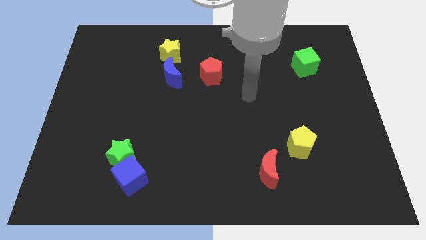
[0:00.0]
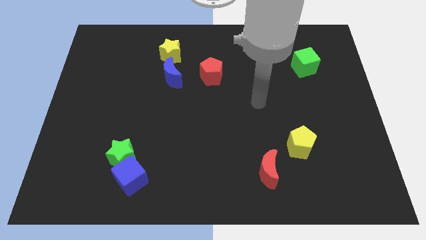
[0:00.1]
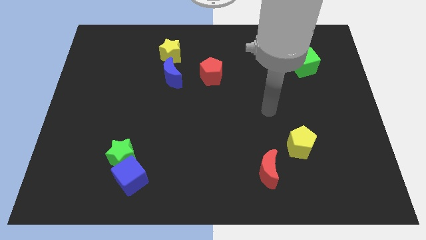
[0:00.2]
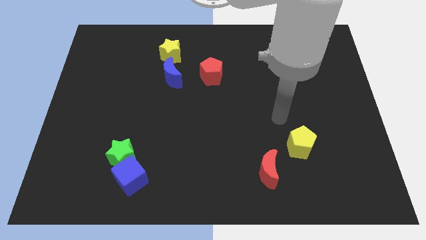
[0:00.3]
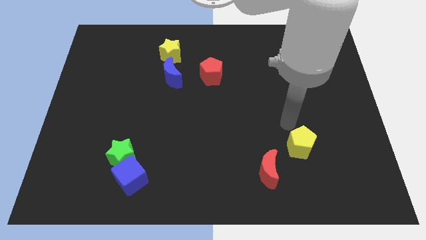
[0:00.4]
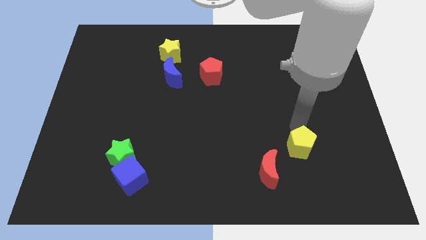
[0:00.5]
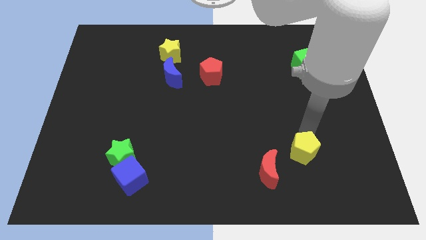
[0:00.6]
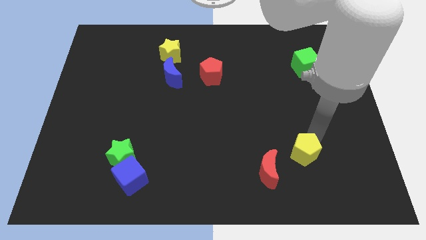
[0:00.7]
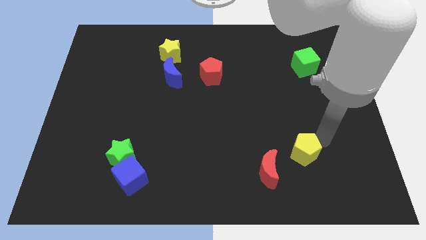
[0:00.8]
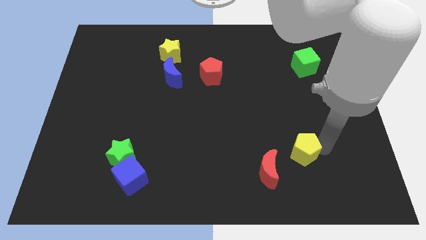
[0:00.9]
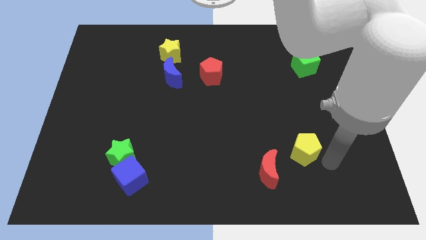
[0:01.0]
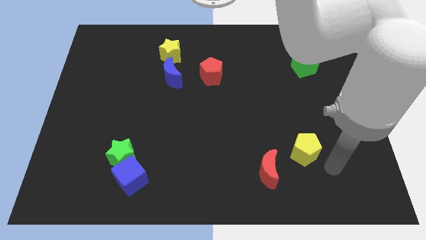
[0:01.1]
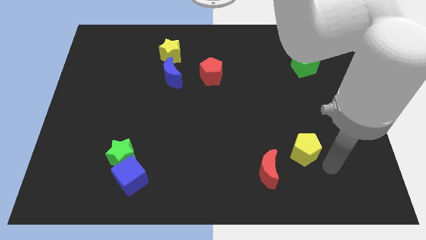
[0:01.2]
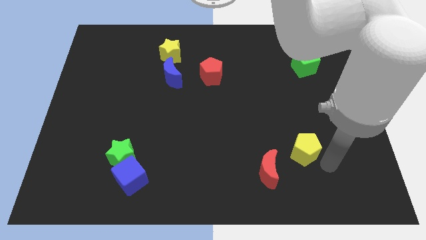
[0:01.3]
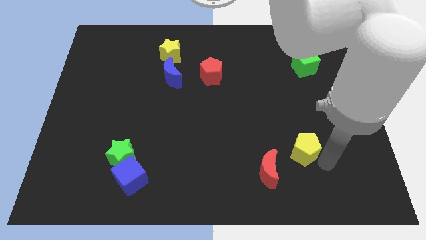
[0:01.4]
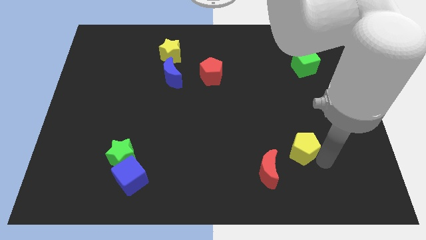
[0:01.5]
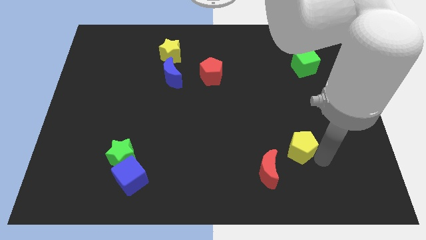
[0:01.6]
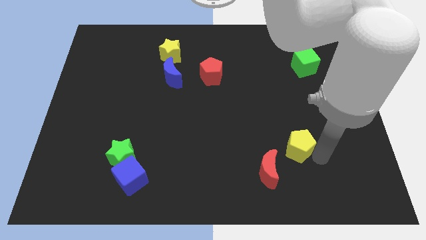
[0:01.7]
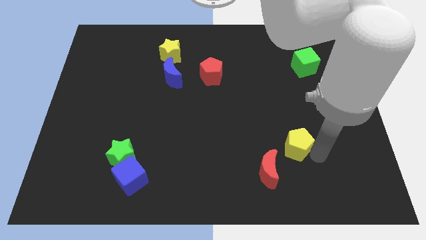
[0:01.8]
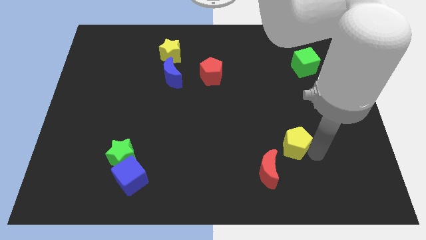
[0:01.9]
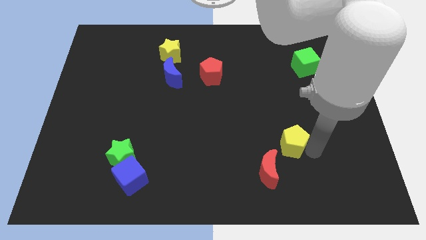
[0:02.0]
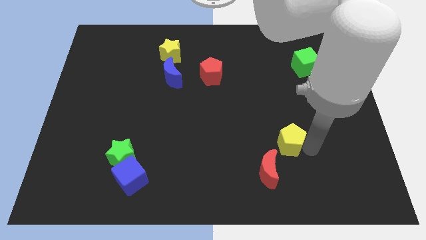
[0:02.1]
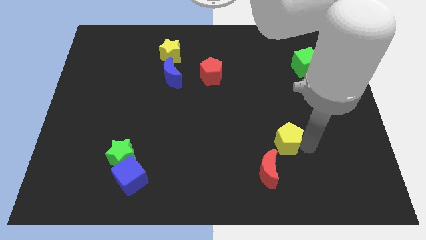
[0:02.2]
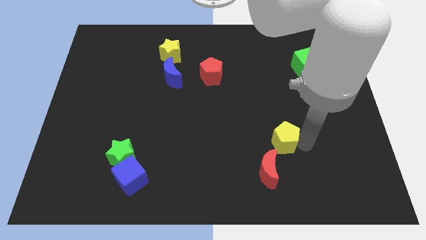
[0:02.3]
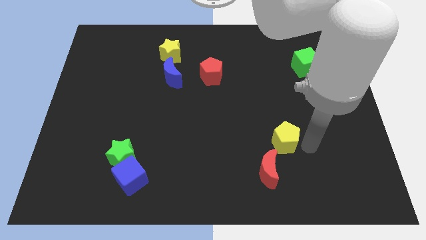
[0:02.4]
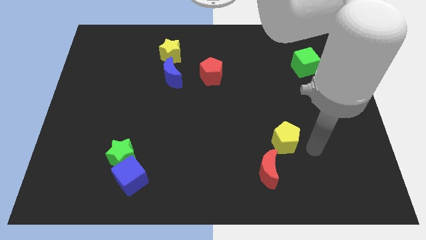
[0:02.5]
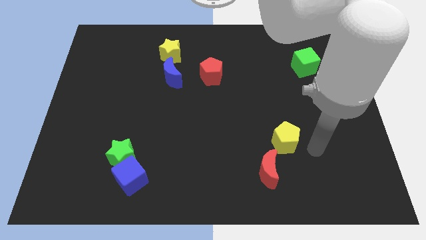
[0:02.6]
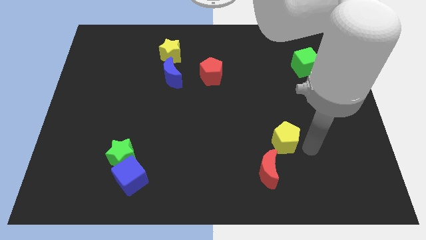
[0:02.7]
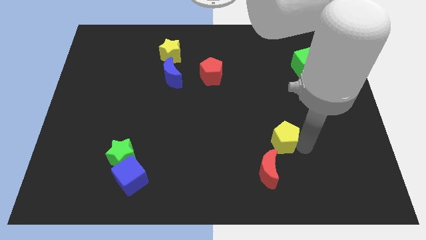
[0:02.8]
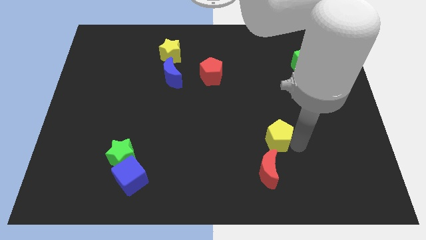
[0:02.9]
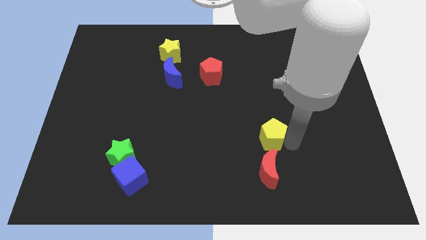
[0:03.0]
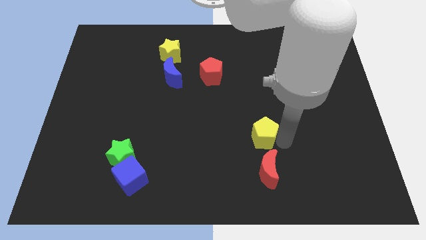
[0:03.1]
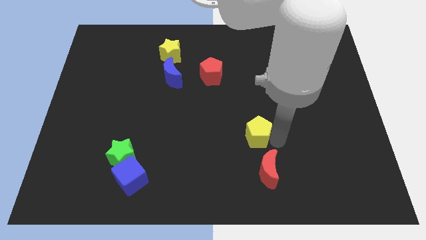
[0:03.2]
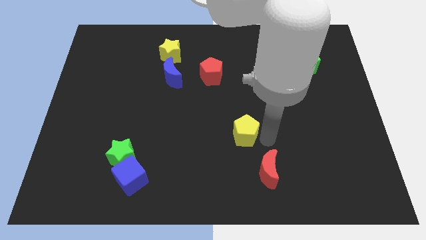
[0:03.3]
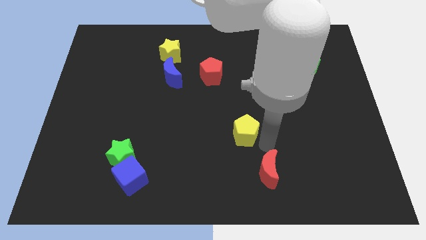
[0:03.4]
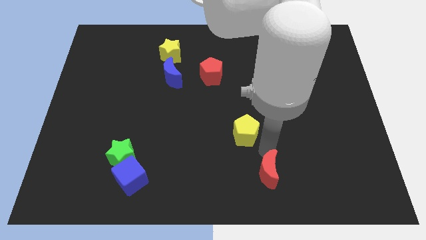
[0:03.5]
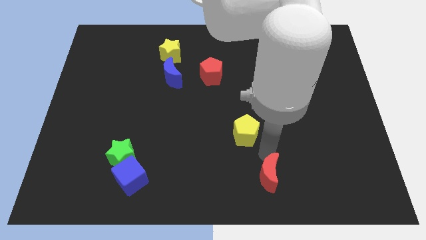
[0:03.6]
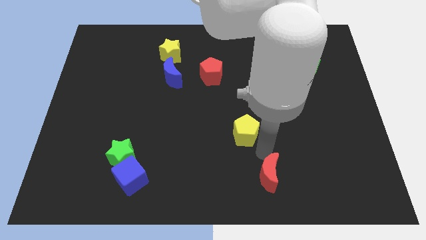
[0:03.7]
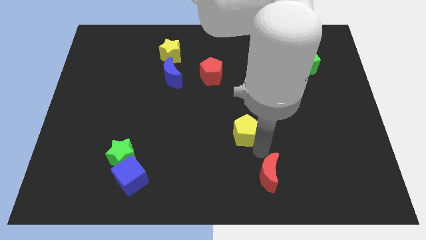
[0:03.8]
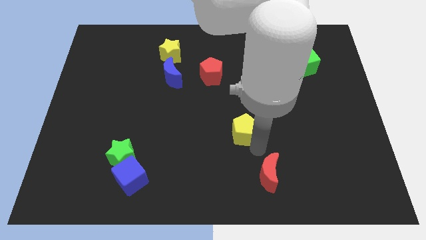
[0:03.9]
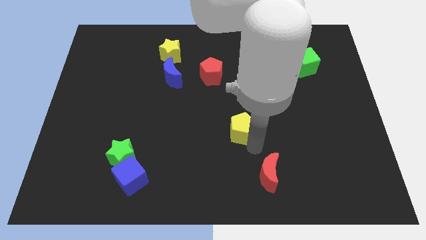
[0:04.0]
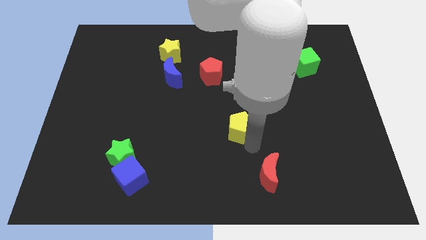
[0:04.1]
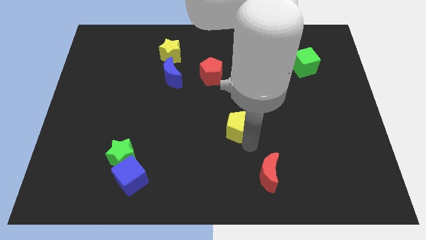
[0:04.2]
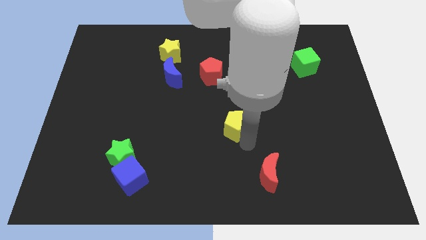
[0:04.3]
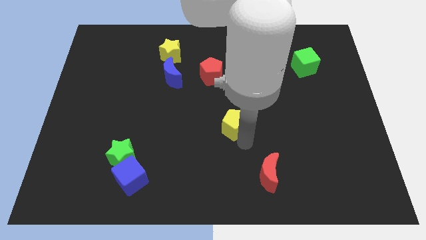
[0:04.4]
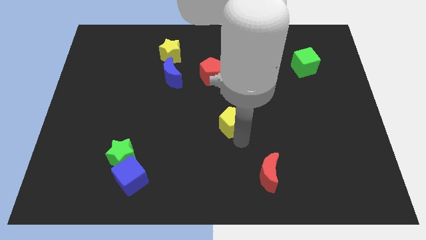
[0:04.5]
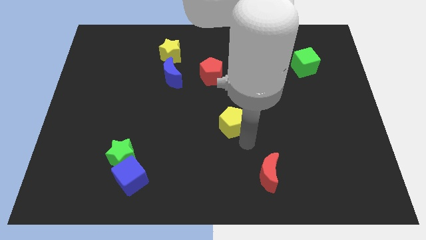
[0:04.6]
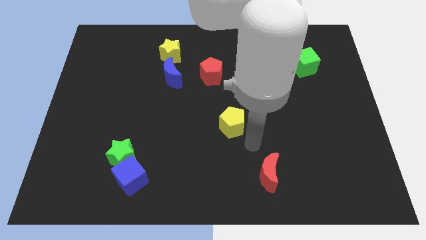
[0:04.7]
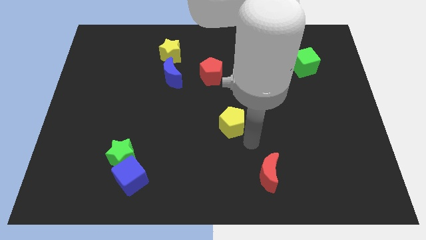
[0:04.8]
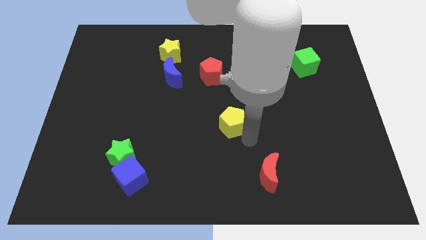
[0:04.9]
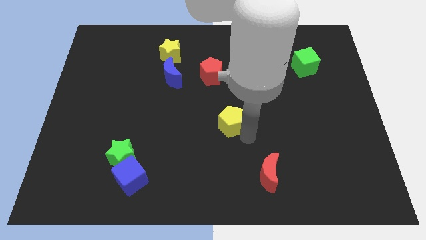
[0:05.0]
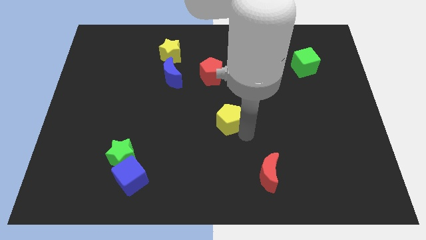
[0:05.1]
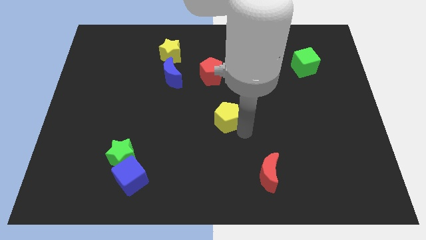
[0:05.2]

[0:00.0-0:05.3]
push the yellow pentagon below the red pentagon

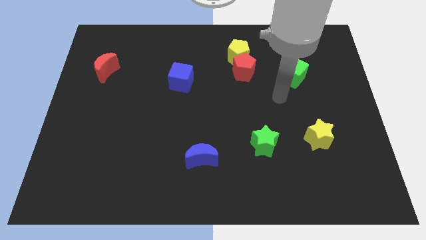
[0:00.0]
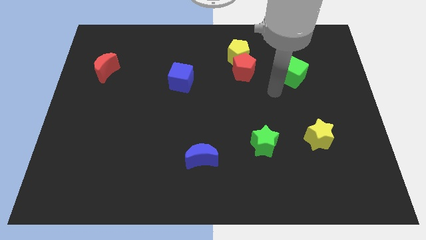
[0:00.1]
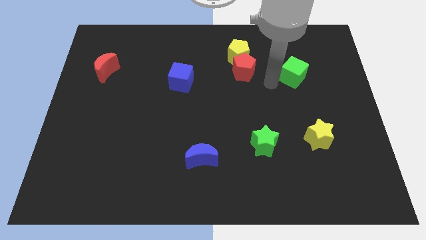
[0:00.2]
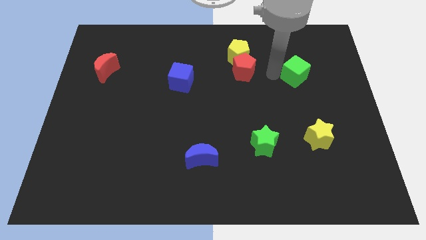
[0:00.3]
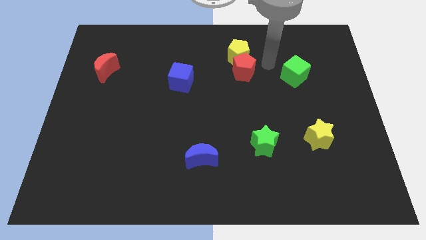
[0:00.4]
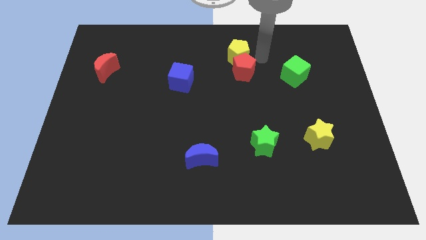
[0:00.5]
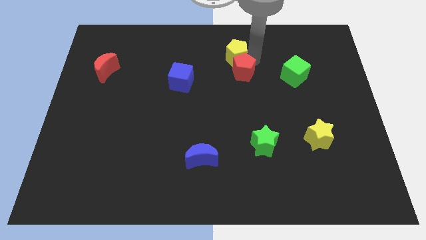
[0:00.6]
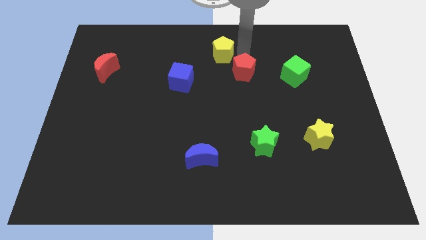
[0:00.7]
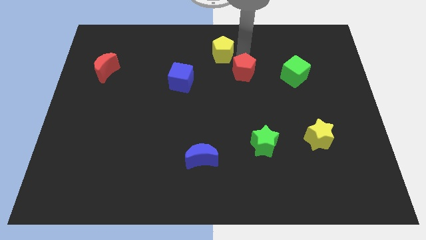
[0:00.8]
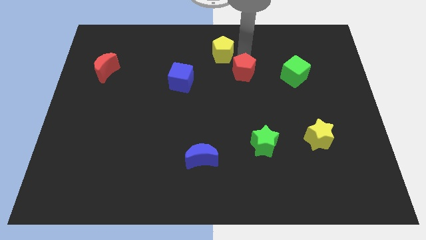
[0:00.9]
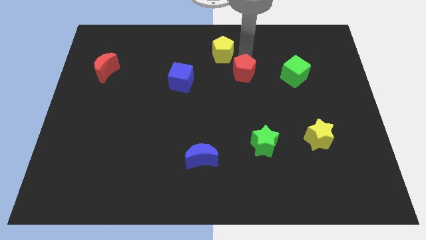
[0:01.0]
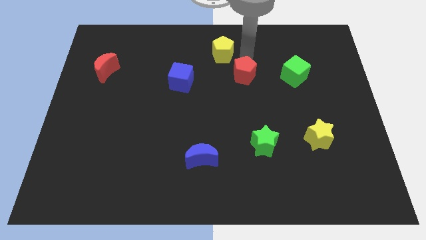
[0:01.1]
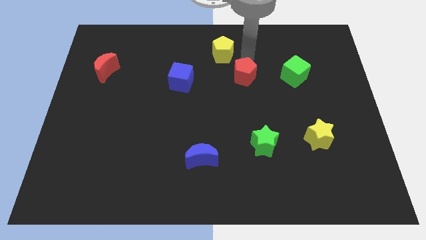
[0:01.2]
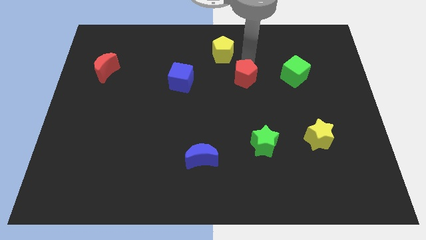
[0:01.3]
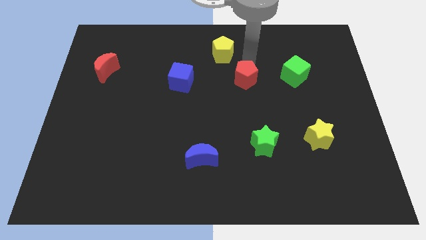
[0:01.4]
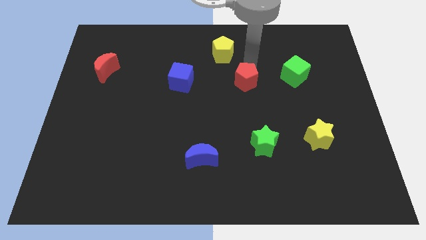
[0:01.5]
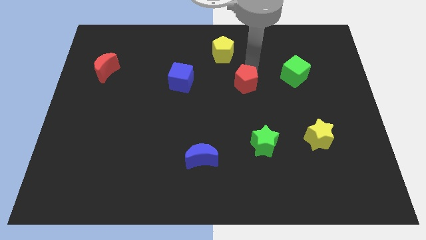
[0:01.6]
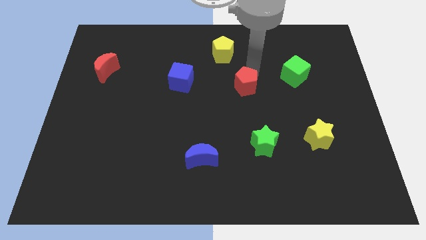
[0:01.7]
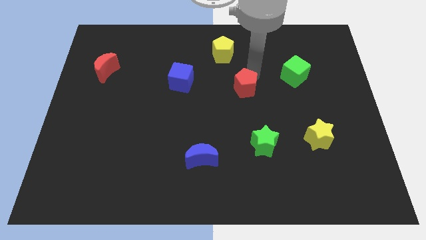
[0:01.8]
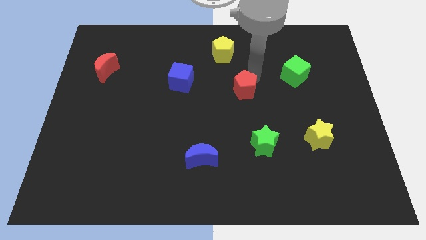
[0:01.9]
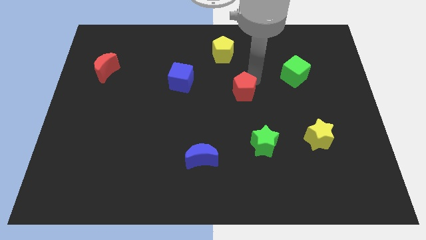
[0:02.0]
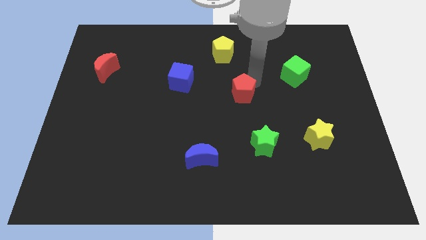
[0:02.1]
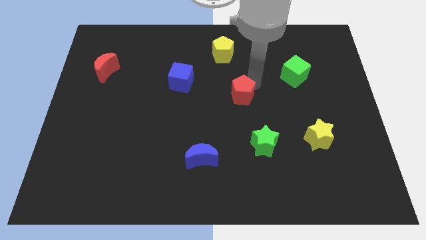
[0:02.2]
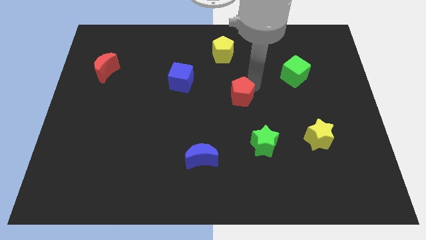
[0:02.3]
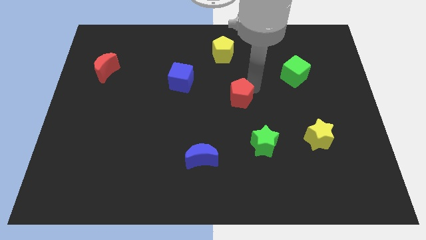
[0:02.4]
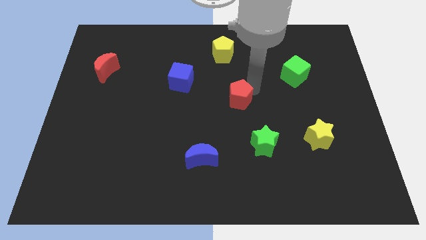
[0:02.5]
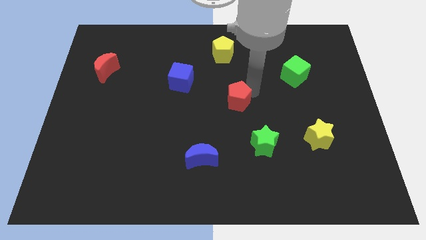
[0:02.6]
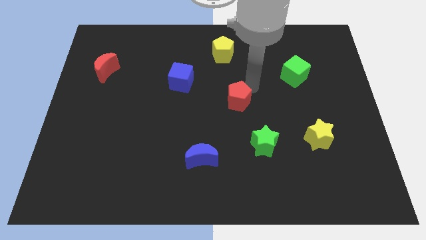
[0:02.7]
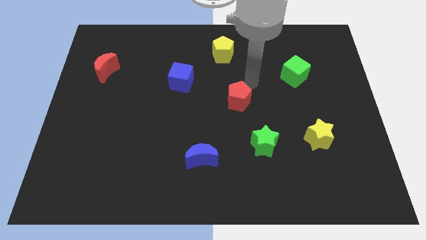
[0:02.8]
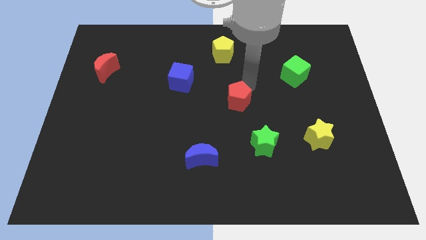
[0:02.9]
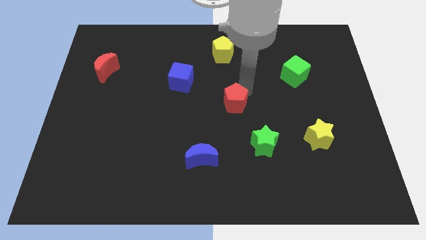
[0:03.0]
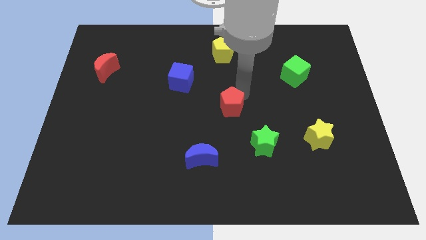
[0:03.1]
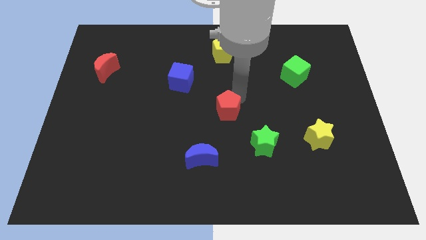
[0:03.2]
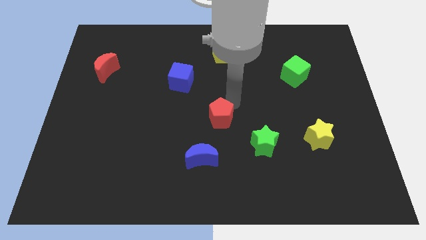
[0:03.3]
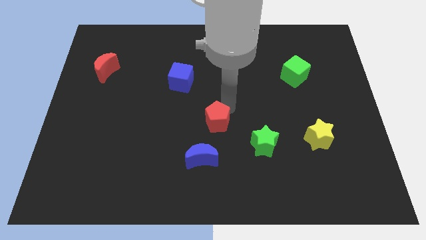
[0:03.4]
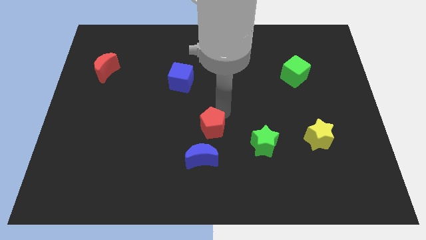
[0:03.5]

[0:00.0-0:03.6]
slide the red pentagon to the left of the green star
